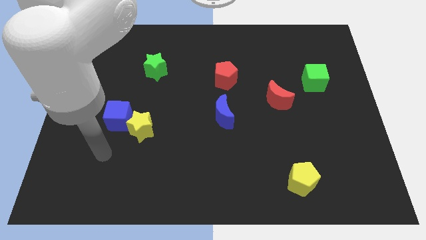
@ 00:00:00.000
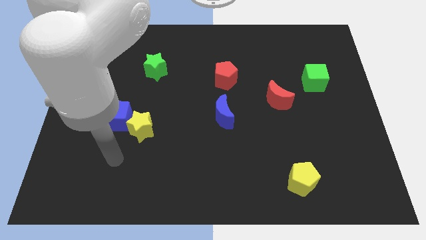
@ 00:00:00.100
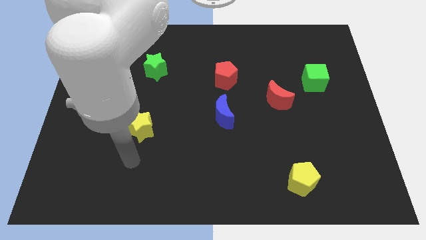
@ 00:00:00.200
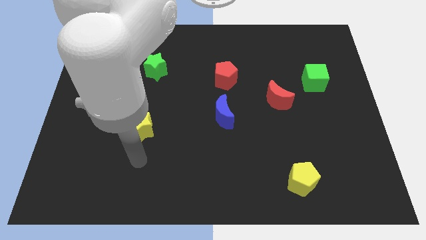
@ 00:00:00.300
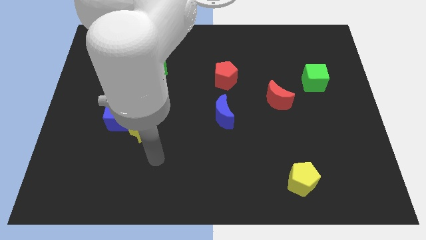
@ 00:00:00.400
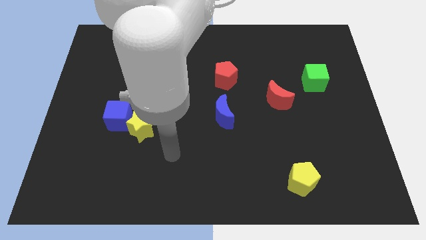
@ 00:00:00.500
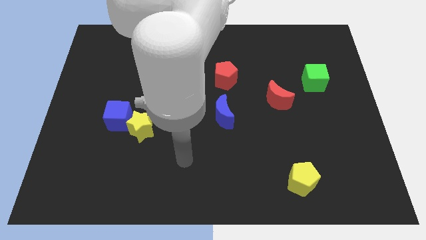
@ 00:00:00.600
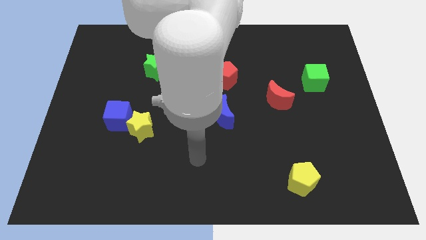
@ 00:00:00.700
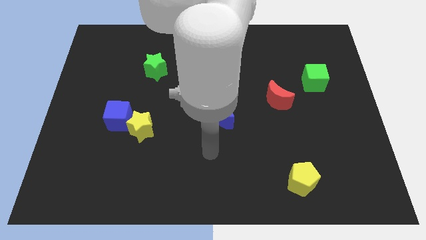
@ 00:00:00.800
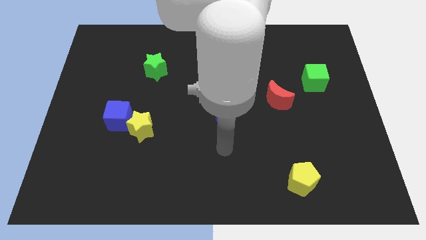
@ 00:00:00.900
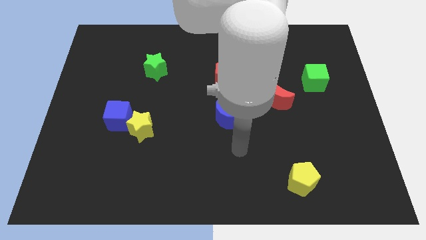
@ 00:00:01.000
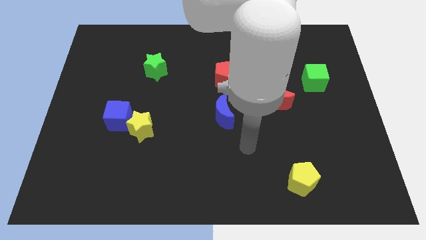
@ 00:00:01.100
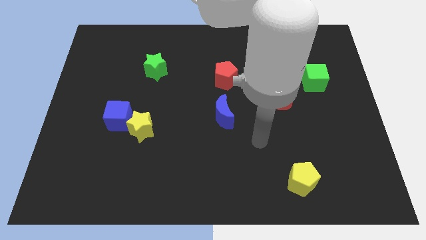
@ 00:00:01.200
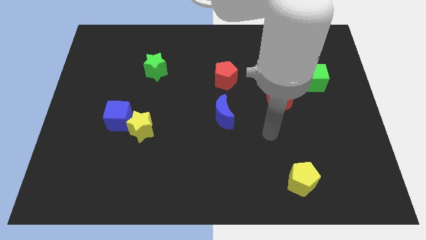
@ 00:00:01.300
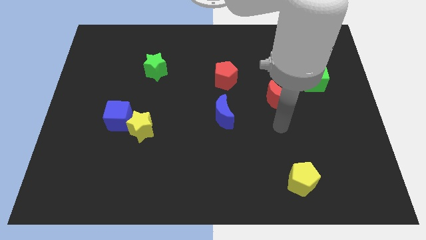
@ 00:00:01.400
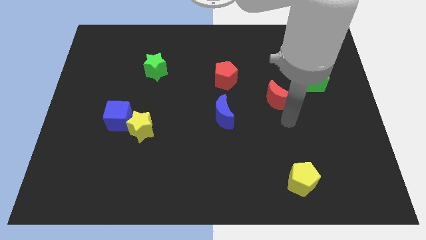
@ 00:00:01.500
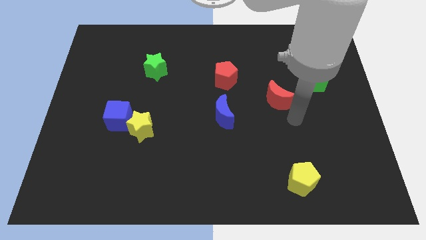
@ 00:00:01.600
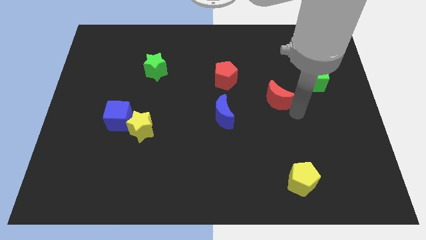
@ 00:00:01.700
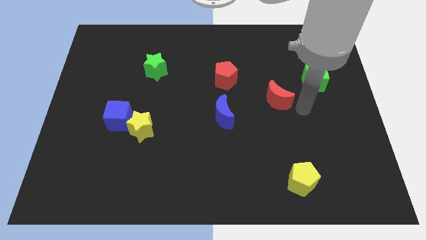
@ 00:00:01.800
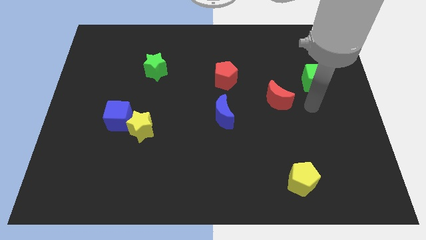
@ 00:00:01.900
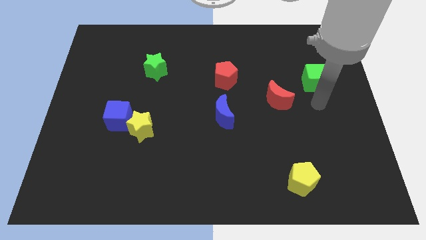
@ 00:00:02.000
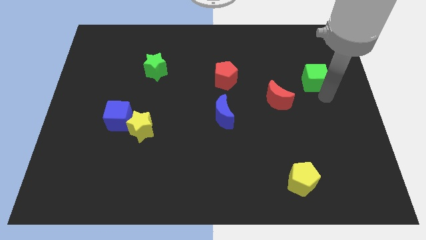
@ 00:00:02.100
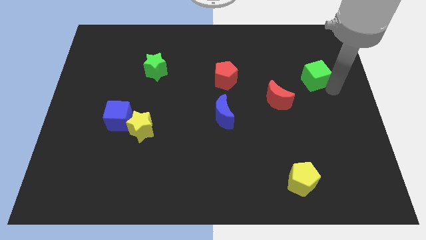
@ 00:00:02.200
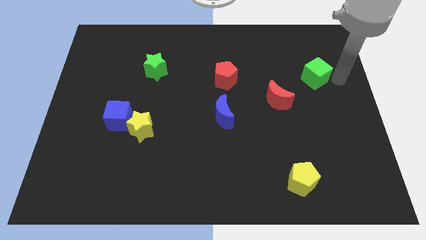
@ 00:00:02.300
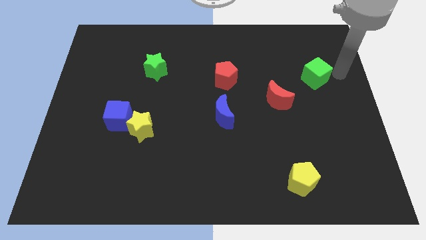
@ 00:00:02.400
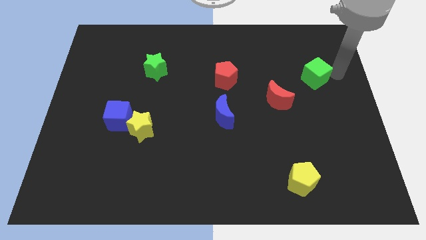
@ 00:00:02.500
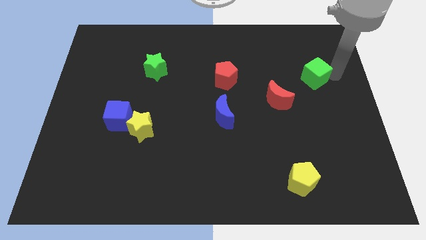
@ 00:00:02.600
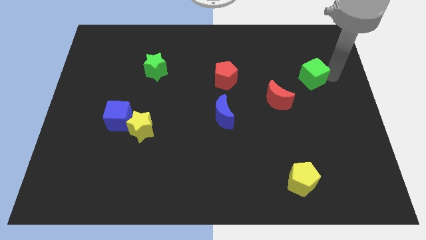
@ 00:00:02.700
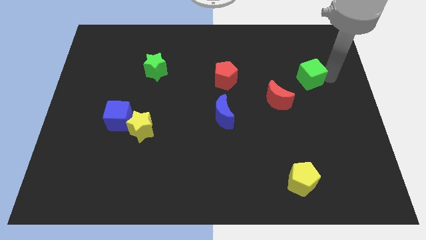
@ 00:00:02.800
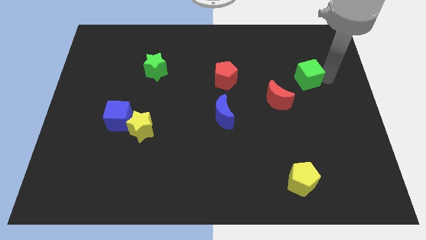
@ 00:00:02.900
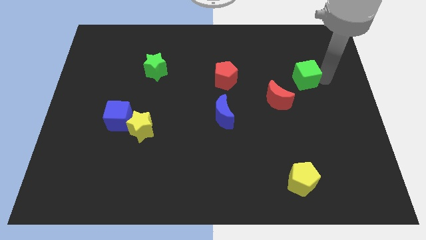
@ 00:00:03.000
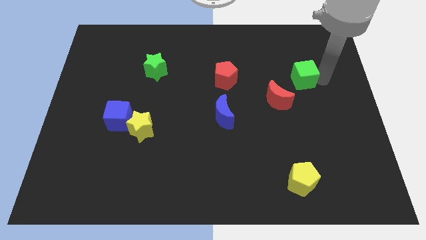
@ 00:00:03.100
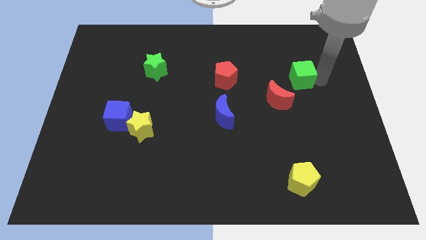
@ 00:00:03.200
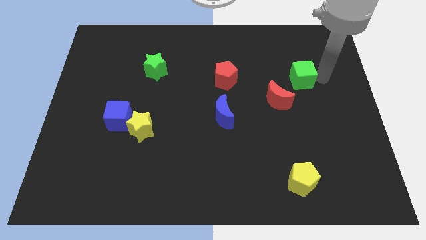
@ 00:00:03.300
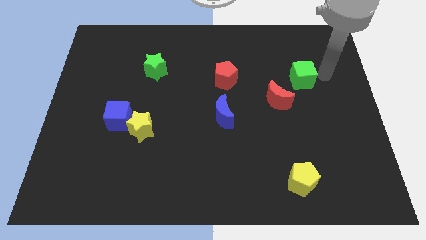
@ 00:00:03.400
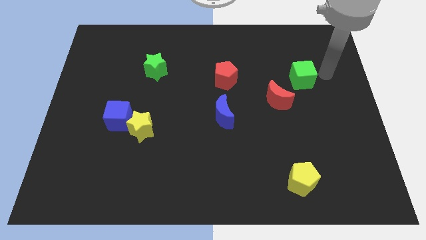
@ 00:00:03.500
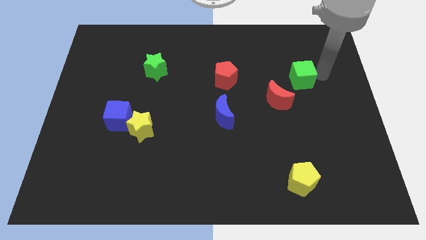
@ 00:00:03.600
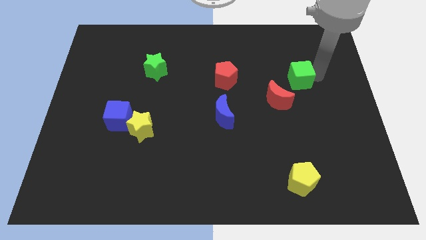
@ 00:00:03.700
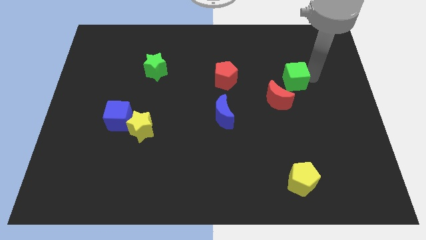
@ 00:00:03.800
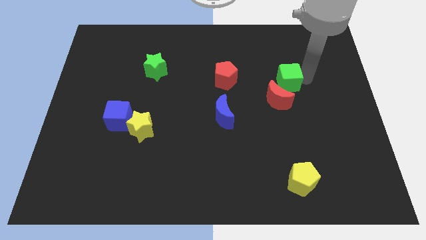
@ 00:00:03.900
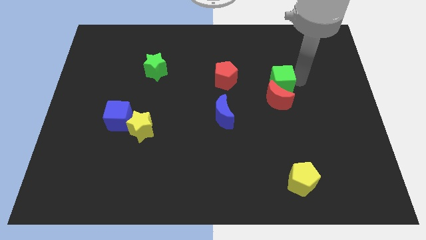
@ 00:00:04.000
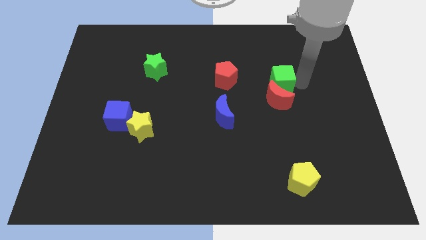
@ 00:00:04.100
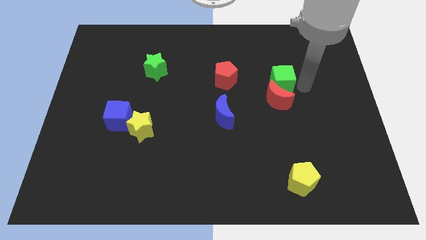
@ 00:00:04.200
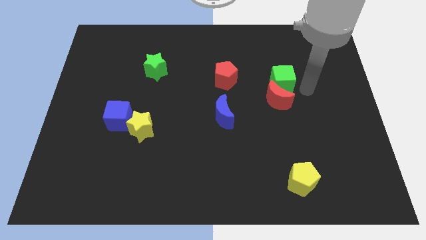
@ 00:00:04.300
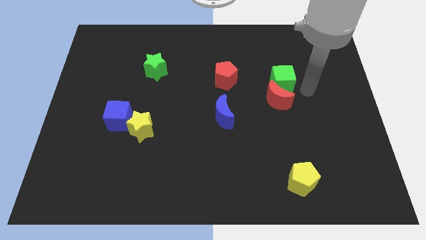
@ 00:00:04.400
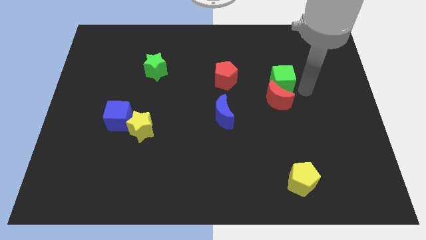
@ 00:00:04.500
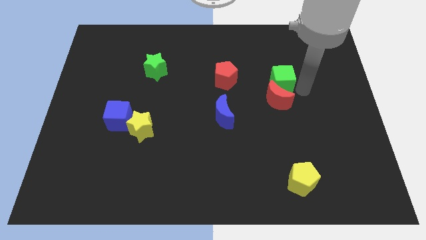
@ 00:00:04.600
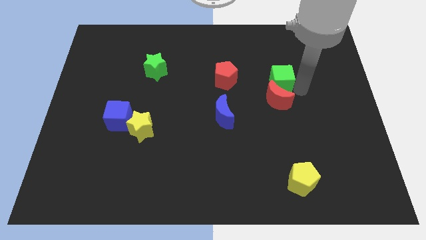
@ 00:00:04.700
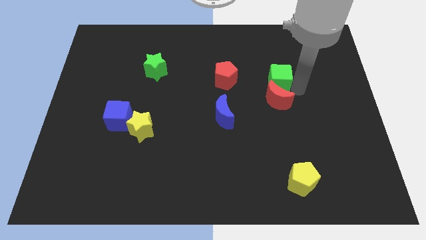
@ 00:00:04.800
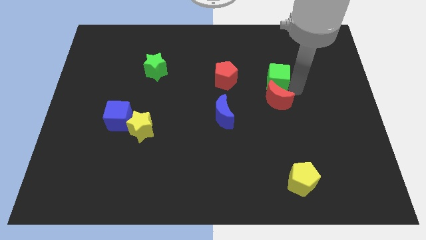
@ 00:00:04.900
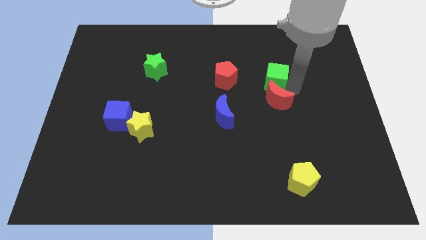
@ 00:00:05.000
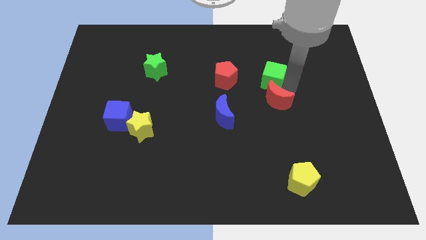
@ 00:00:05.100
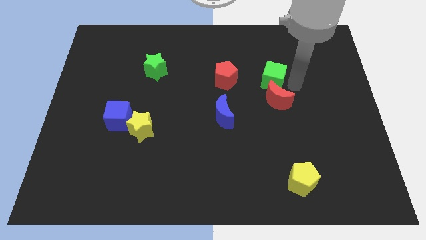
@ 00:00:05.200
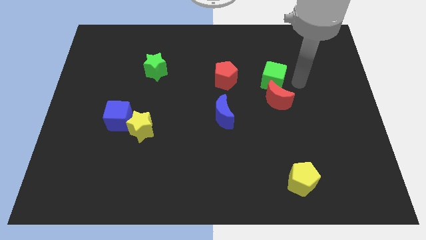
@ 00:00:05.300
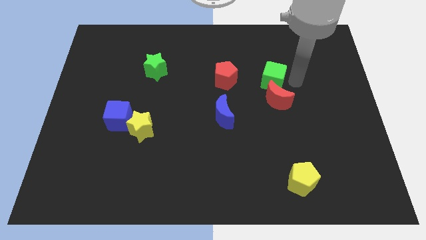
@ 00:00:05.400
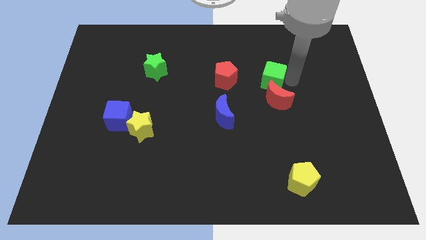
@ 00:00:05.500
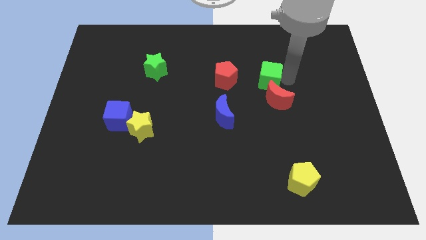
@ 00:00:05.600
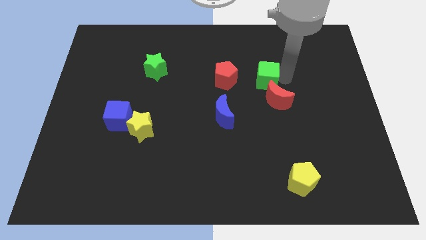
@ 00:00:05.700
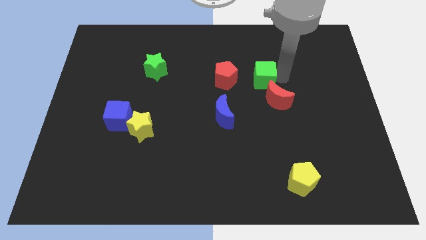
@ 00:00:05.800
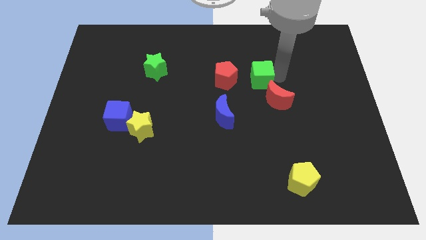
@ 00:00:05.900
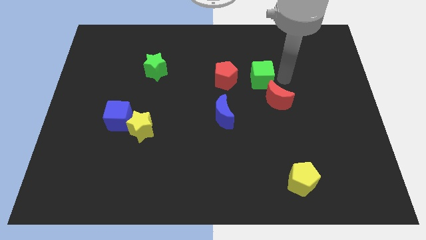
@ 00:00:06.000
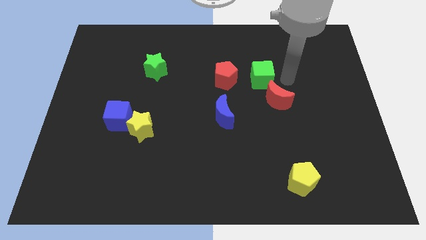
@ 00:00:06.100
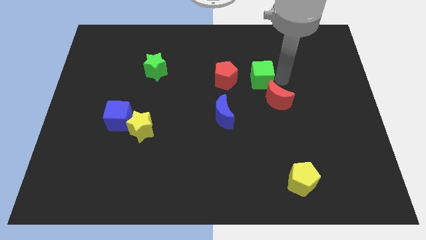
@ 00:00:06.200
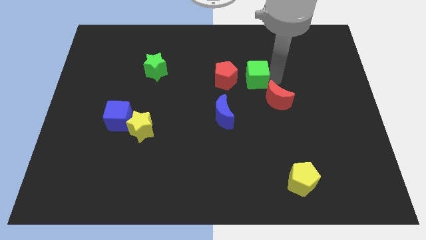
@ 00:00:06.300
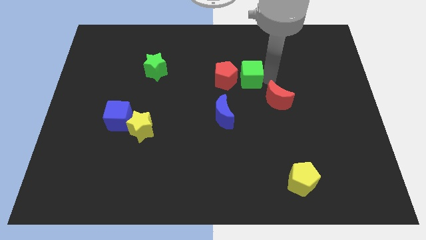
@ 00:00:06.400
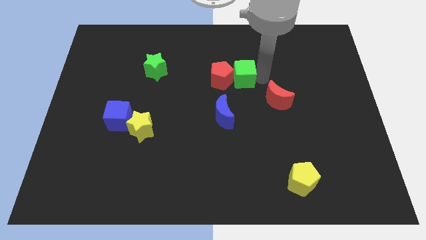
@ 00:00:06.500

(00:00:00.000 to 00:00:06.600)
slide the green cube towards the red pentagon

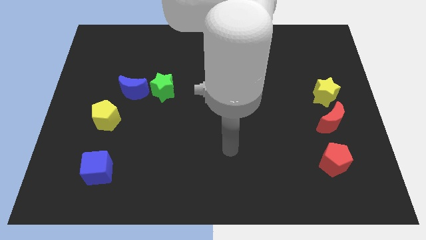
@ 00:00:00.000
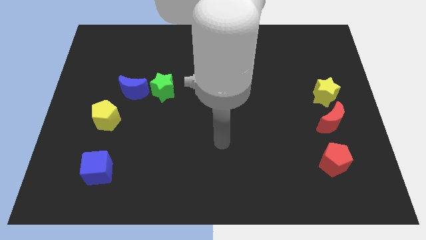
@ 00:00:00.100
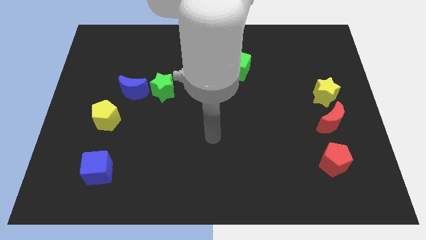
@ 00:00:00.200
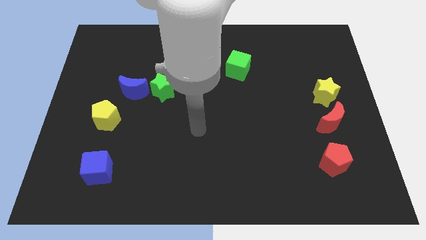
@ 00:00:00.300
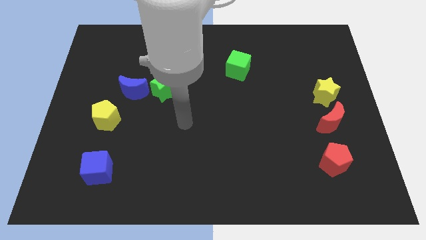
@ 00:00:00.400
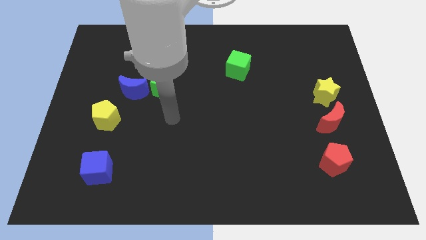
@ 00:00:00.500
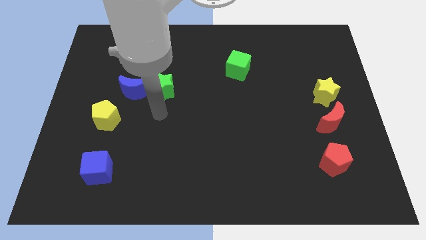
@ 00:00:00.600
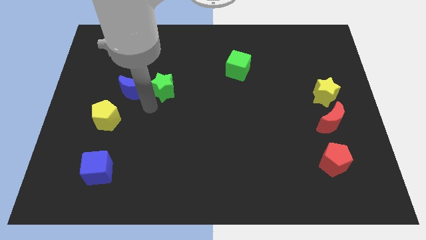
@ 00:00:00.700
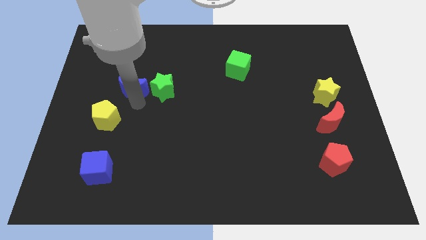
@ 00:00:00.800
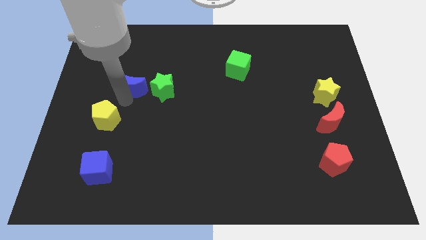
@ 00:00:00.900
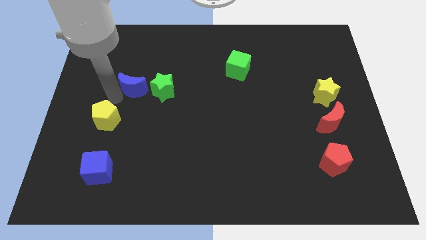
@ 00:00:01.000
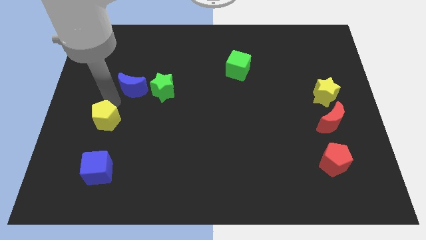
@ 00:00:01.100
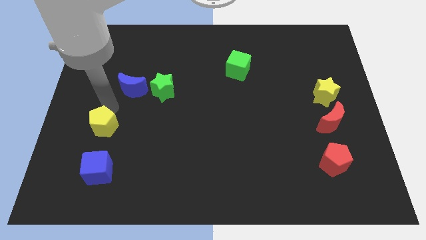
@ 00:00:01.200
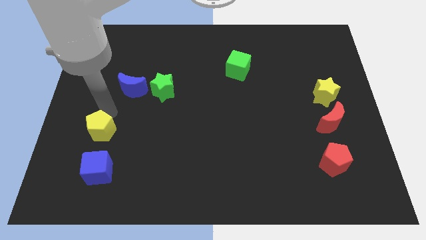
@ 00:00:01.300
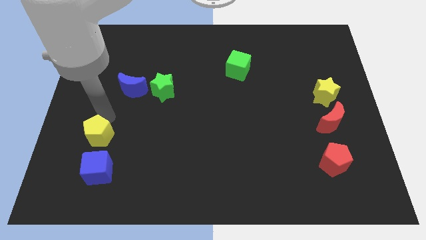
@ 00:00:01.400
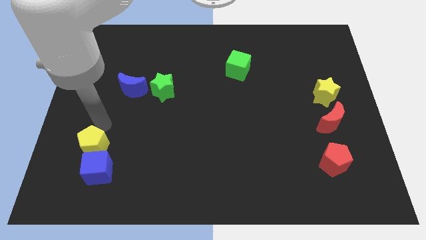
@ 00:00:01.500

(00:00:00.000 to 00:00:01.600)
slide the yellow pentagon to the blue cube
